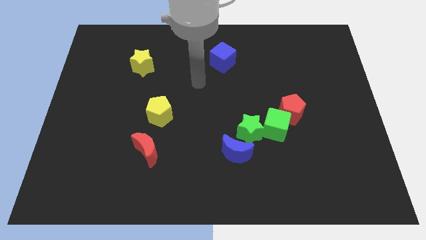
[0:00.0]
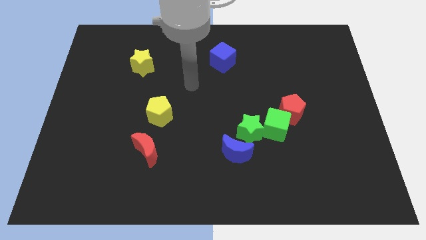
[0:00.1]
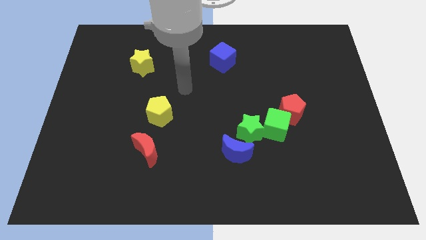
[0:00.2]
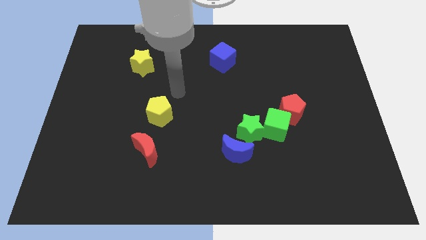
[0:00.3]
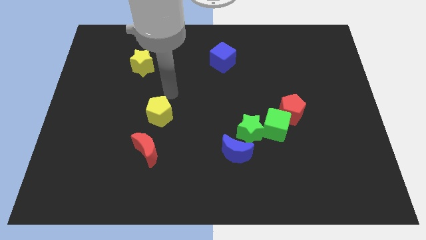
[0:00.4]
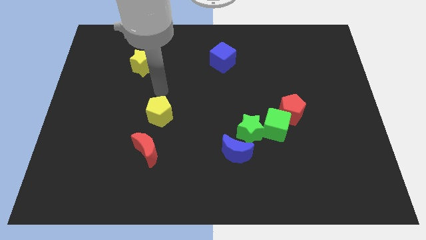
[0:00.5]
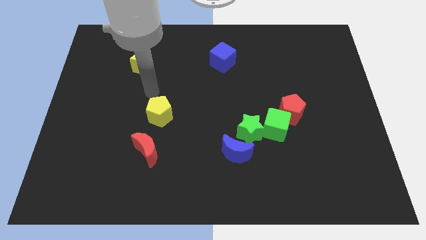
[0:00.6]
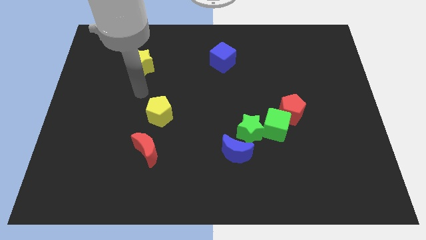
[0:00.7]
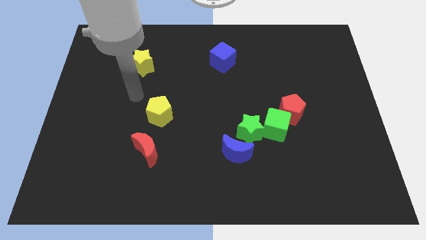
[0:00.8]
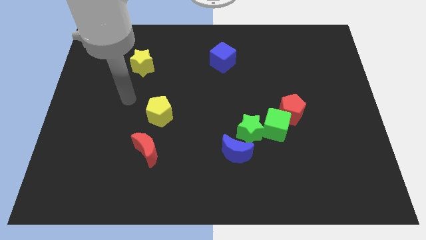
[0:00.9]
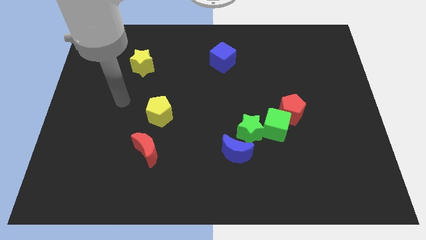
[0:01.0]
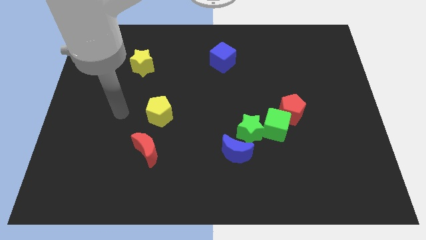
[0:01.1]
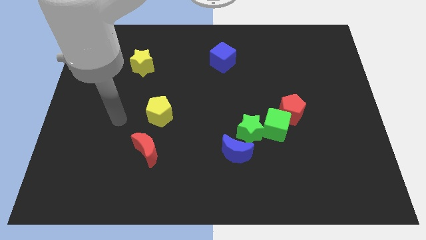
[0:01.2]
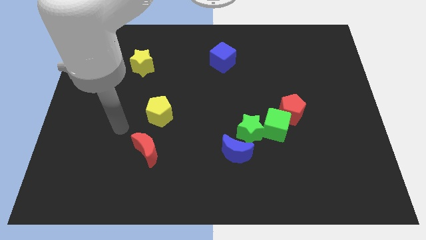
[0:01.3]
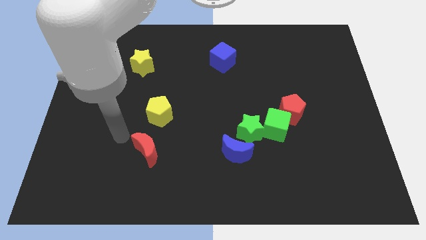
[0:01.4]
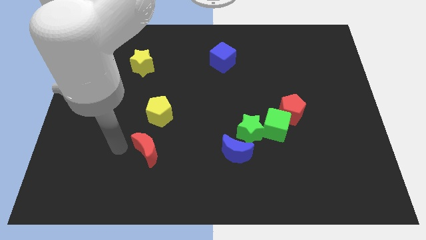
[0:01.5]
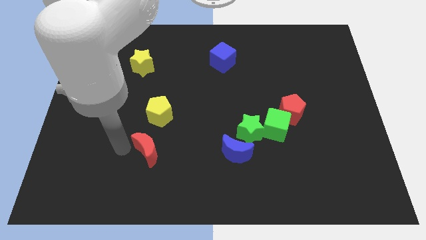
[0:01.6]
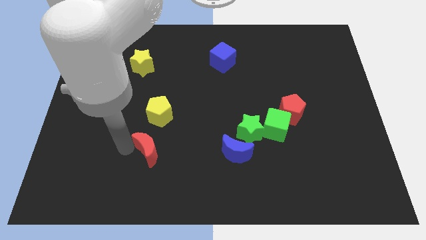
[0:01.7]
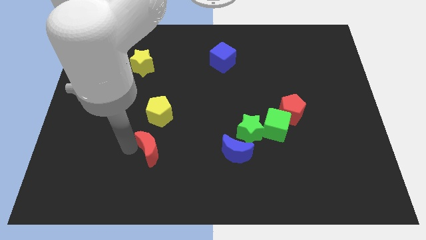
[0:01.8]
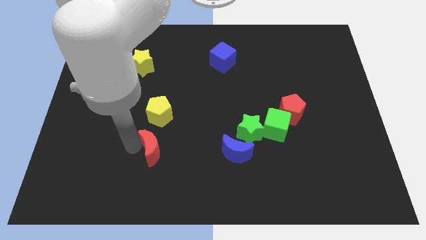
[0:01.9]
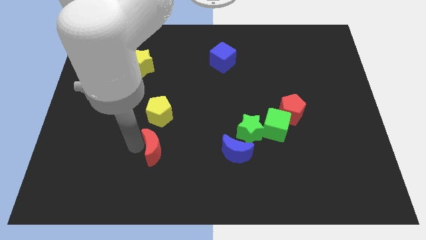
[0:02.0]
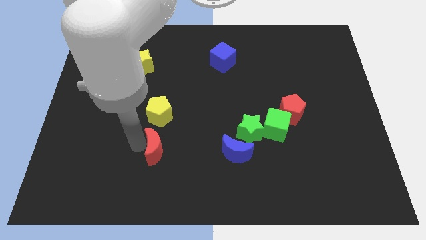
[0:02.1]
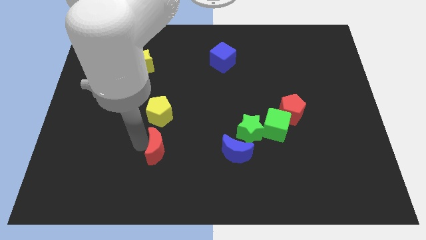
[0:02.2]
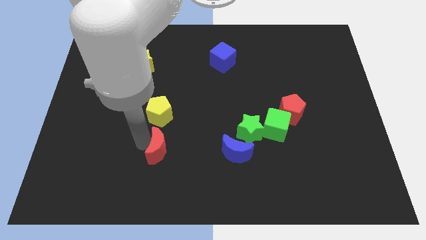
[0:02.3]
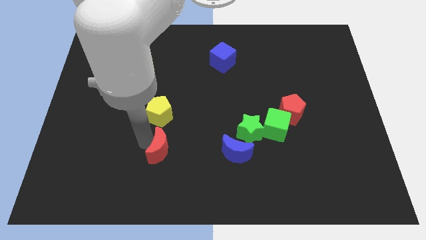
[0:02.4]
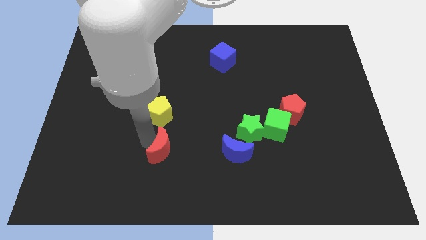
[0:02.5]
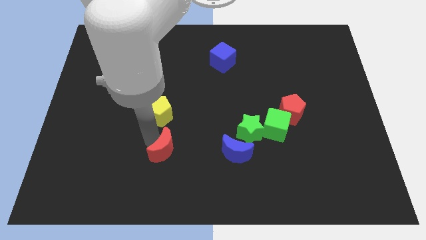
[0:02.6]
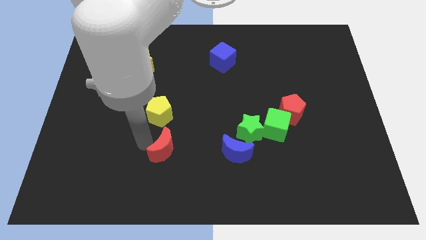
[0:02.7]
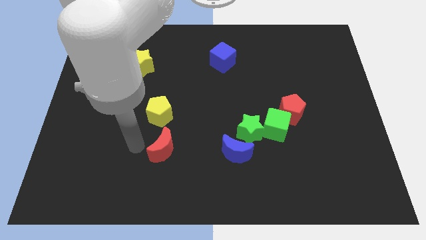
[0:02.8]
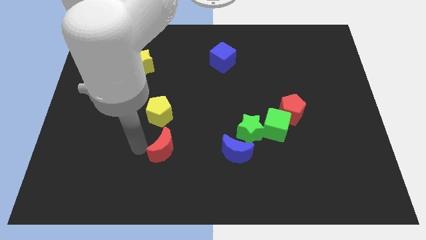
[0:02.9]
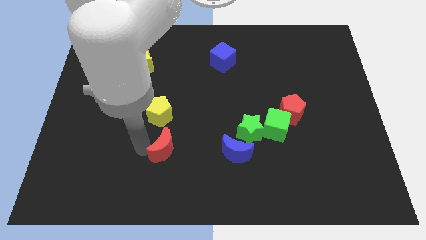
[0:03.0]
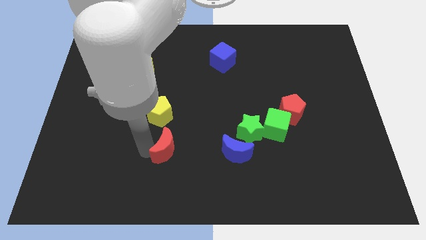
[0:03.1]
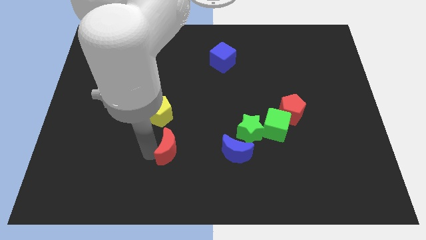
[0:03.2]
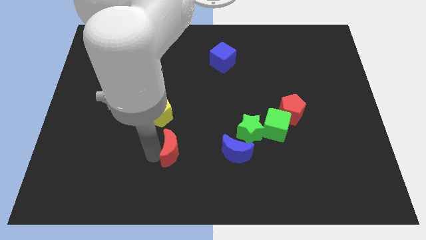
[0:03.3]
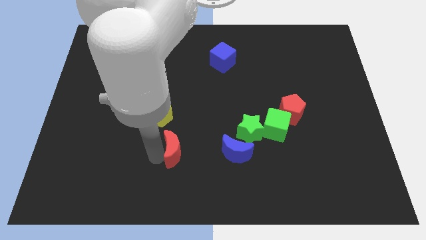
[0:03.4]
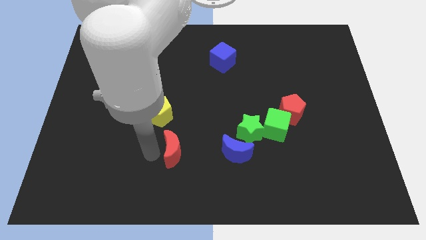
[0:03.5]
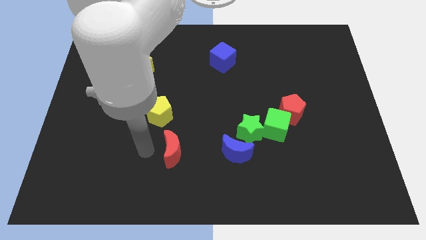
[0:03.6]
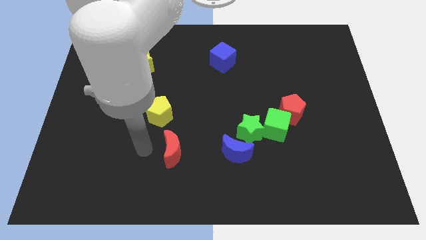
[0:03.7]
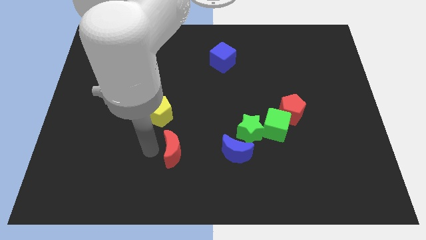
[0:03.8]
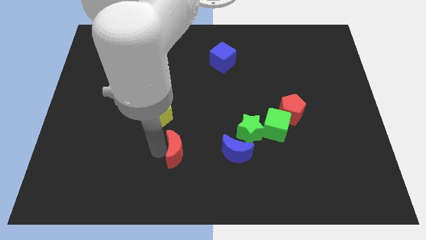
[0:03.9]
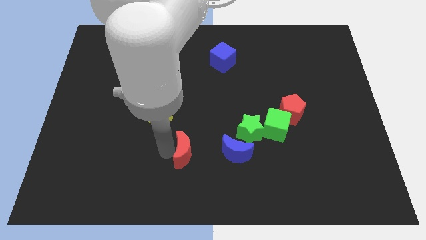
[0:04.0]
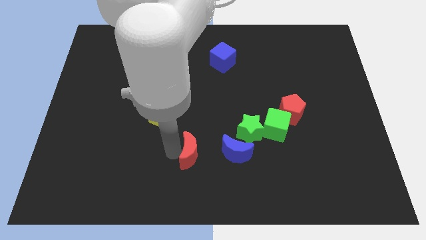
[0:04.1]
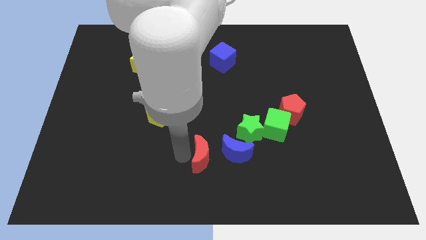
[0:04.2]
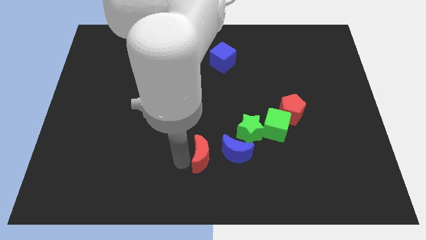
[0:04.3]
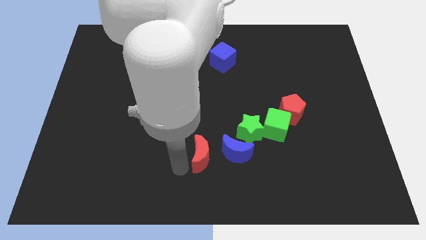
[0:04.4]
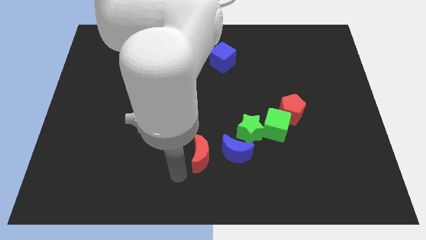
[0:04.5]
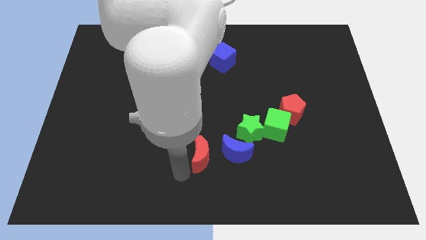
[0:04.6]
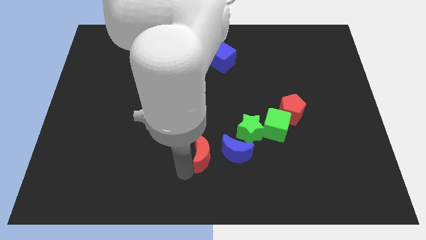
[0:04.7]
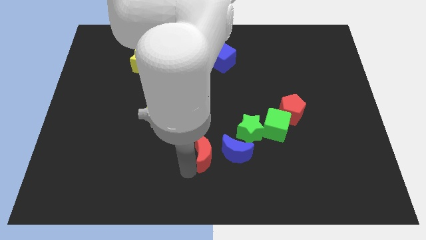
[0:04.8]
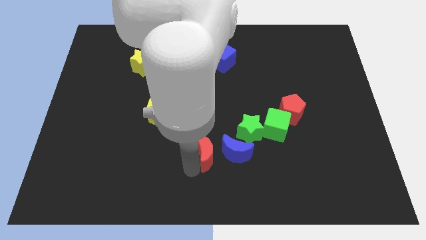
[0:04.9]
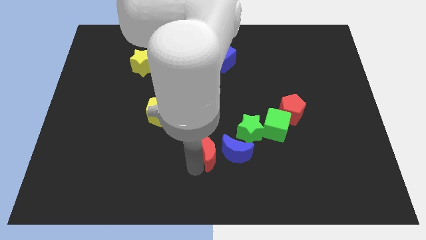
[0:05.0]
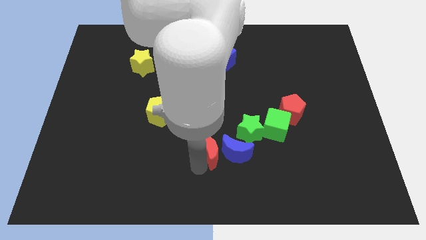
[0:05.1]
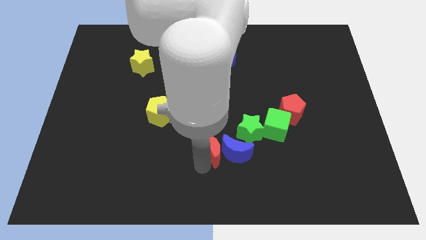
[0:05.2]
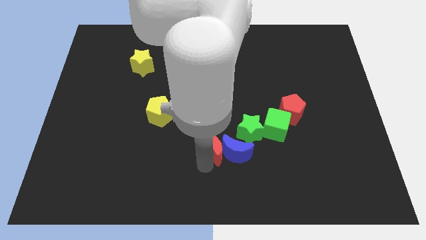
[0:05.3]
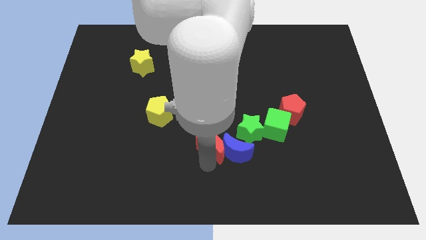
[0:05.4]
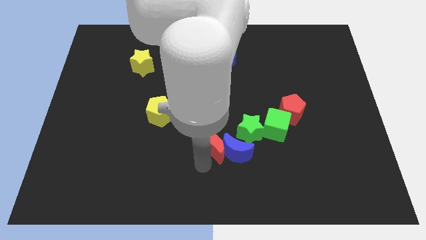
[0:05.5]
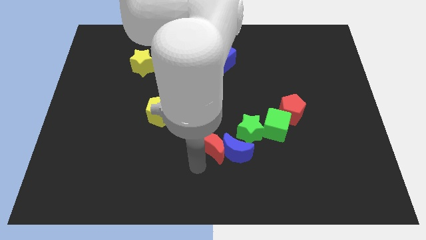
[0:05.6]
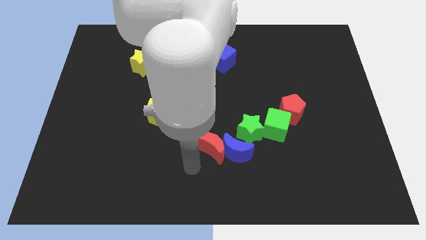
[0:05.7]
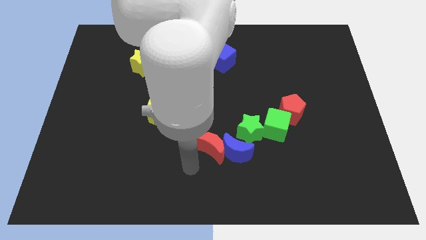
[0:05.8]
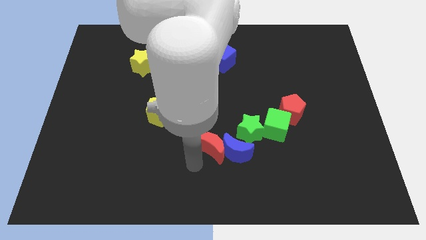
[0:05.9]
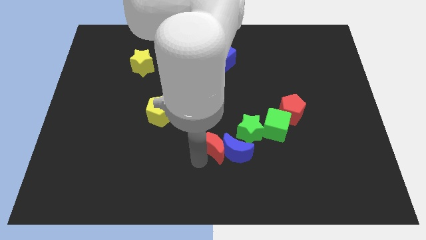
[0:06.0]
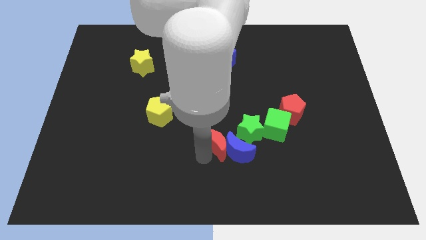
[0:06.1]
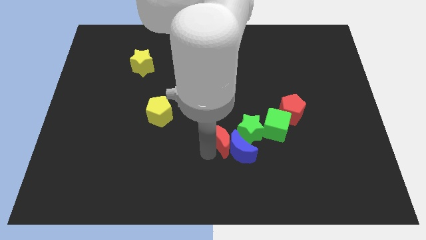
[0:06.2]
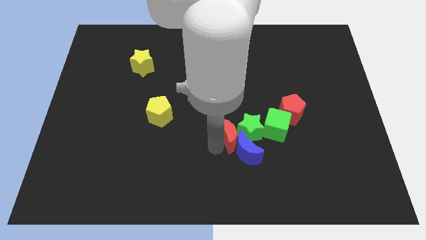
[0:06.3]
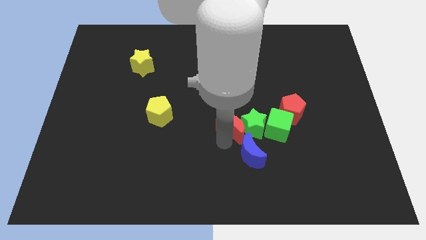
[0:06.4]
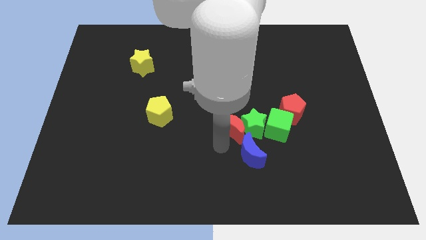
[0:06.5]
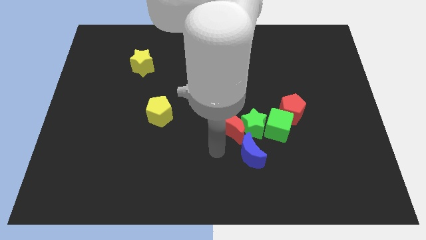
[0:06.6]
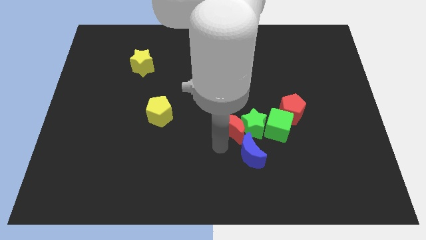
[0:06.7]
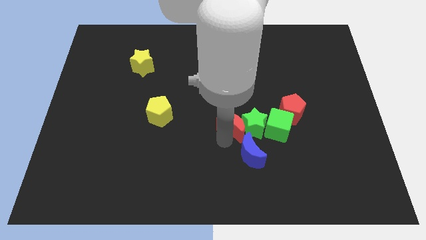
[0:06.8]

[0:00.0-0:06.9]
move the red moon just left of the red pentagon
